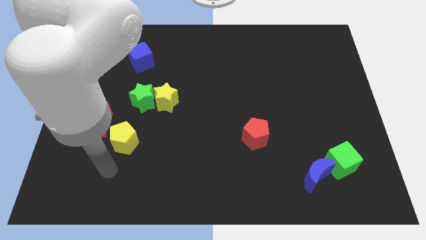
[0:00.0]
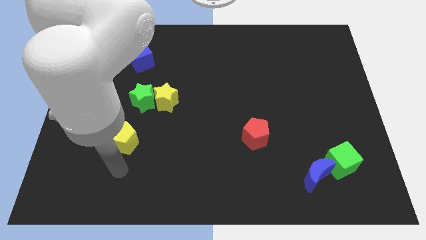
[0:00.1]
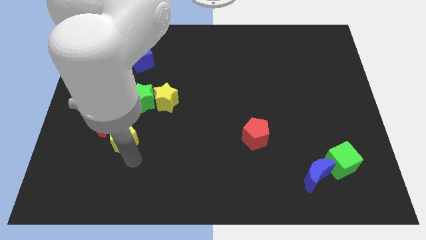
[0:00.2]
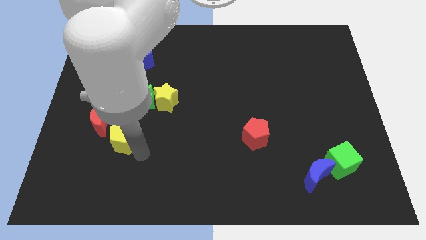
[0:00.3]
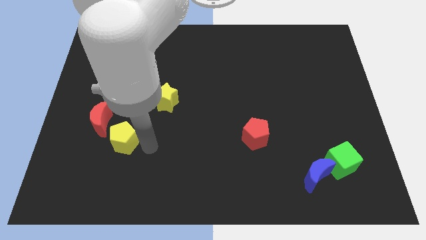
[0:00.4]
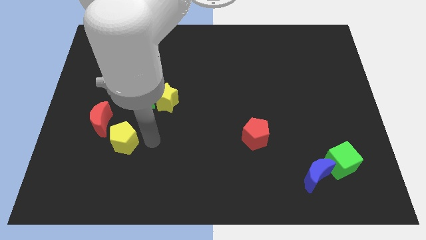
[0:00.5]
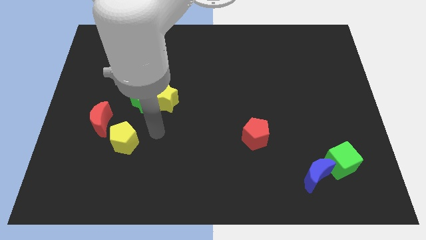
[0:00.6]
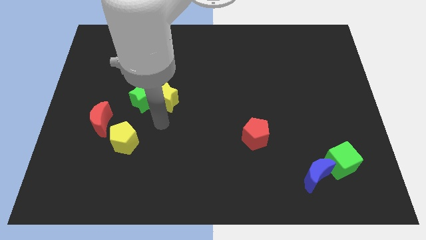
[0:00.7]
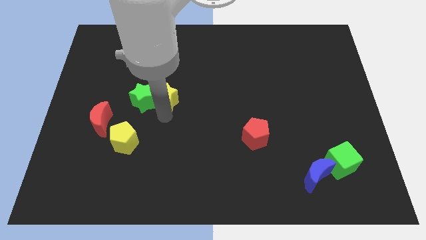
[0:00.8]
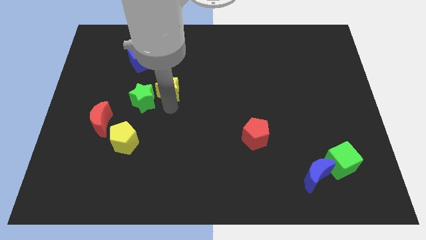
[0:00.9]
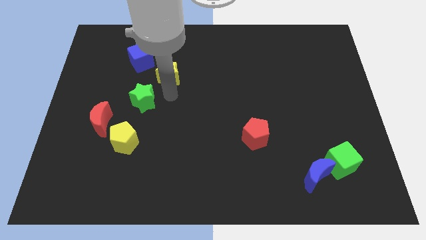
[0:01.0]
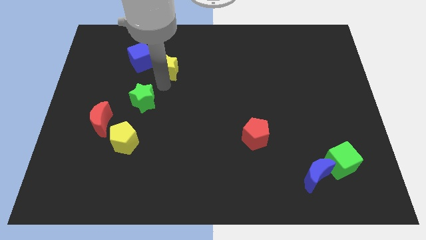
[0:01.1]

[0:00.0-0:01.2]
separate the green star from the yellow star

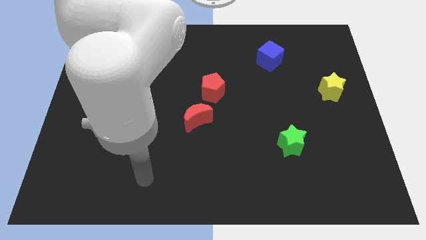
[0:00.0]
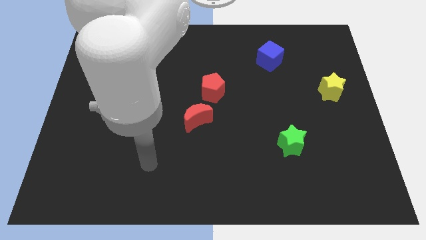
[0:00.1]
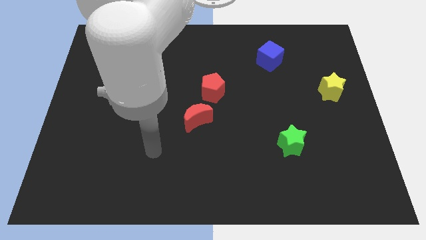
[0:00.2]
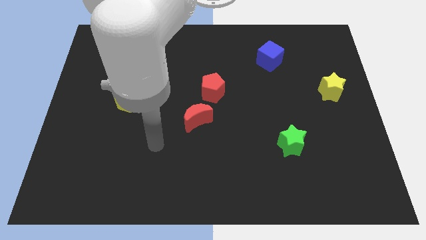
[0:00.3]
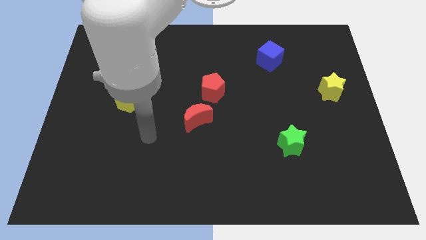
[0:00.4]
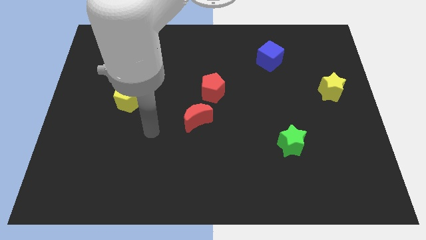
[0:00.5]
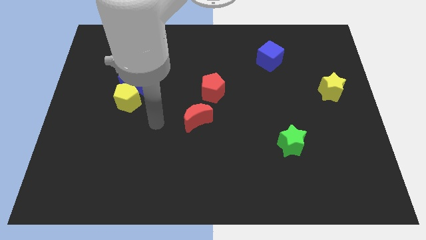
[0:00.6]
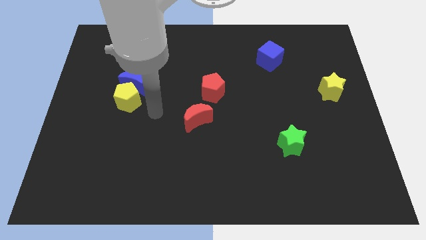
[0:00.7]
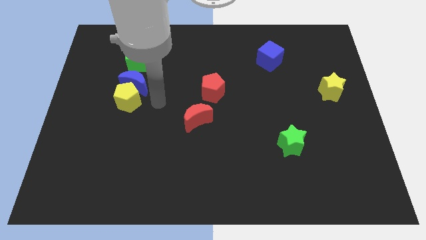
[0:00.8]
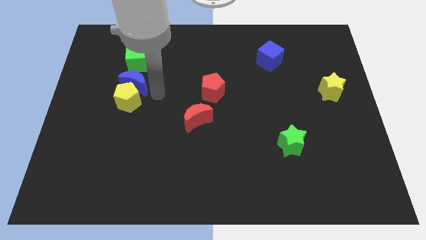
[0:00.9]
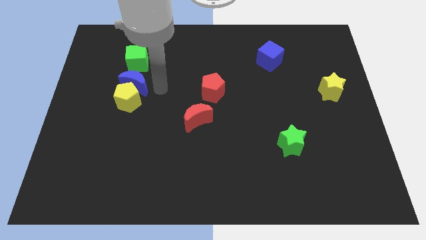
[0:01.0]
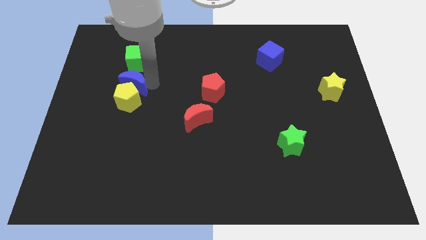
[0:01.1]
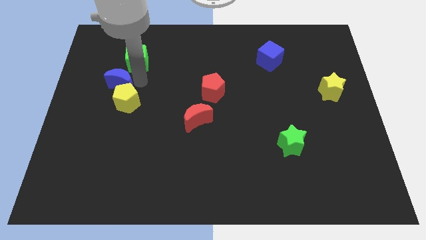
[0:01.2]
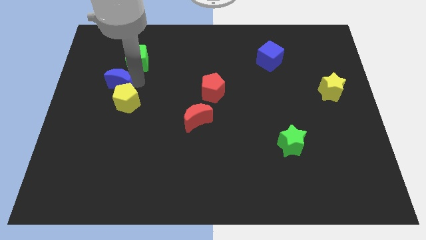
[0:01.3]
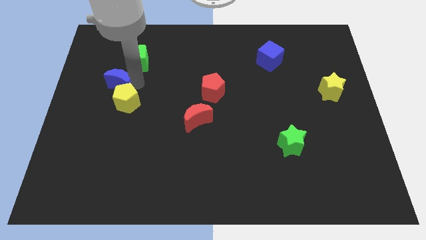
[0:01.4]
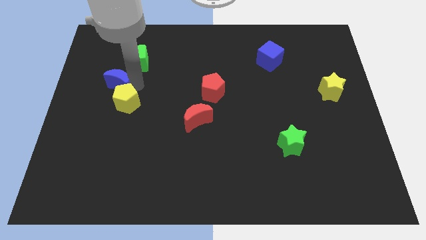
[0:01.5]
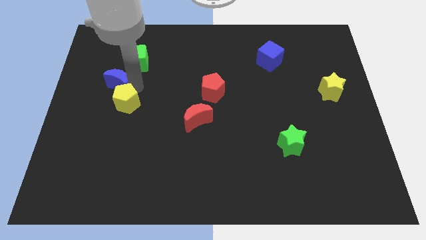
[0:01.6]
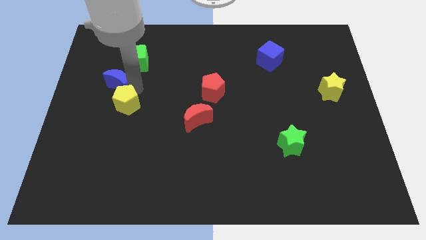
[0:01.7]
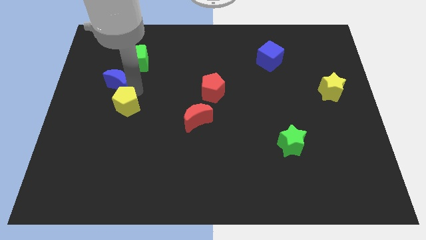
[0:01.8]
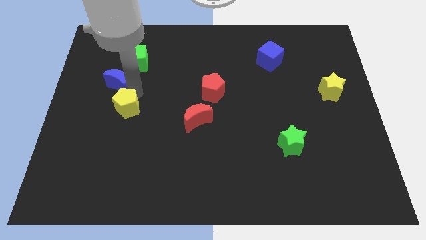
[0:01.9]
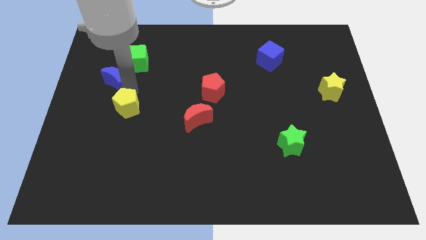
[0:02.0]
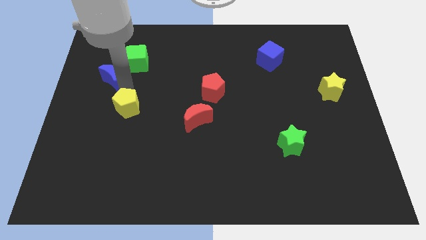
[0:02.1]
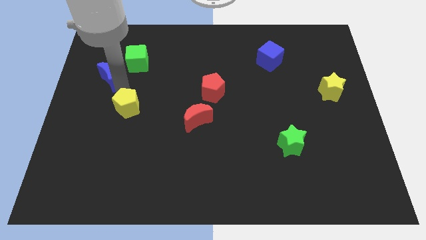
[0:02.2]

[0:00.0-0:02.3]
separate the yellow pentagon from the blue moon

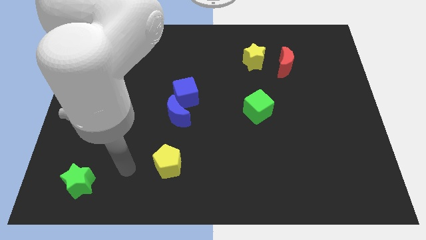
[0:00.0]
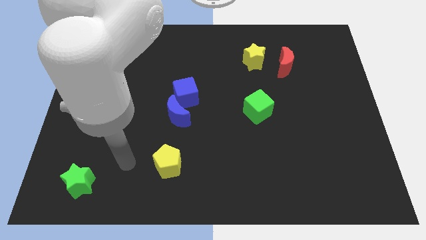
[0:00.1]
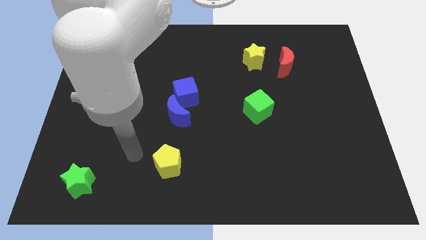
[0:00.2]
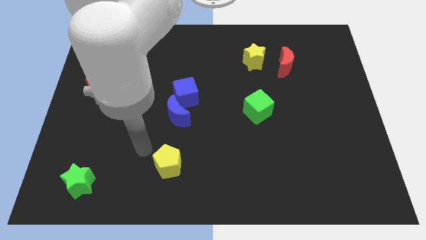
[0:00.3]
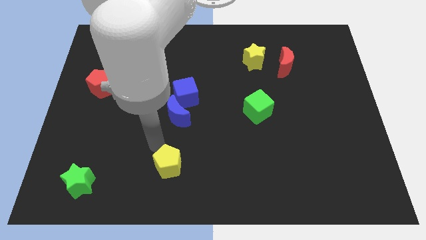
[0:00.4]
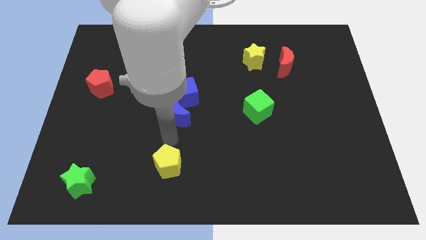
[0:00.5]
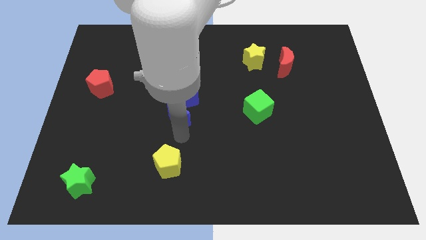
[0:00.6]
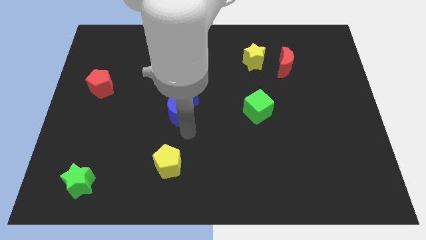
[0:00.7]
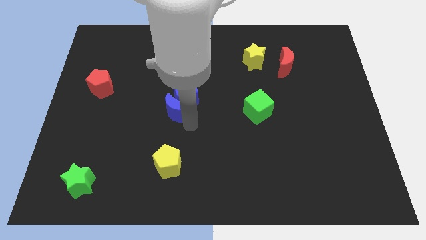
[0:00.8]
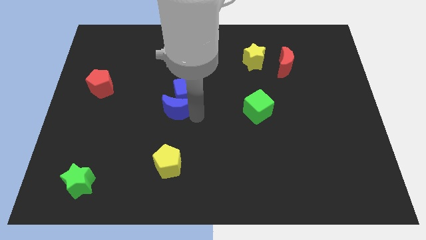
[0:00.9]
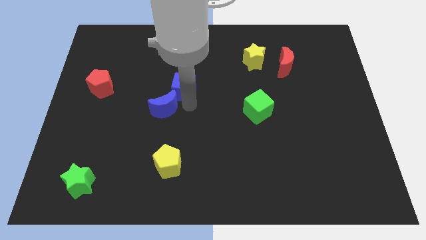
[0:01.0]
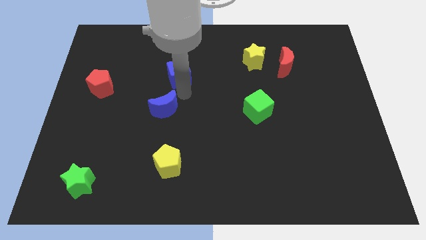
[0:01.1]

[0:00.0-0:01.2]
pull the blue moon apart from the blue cube

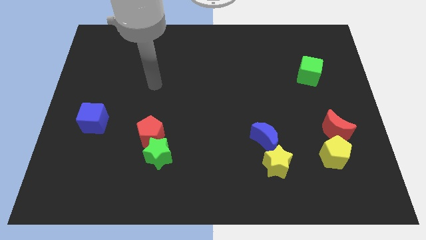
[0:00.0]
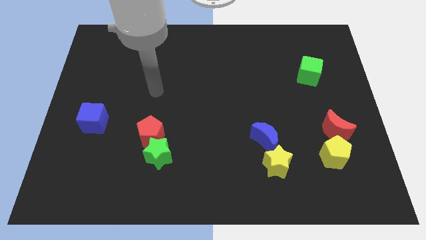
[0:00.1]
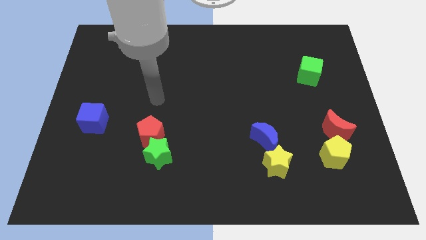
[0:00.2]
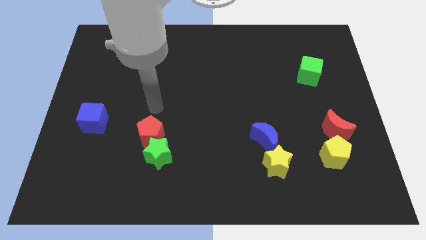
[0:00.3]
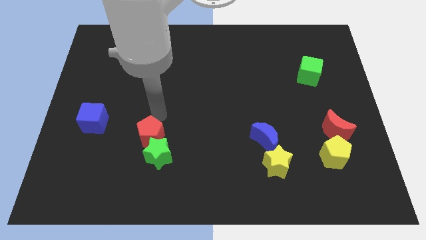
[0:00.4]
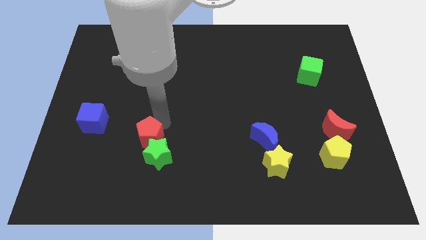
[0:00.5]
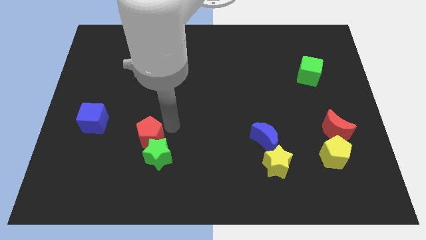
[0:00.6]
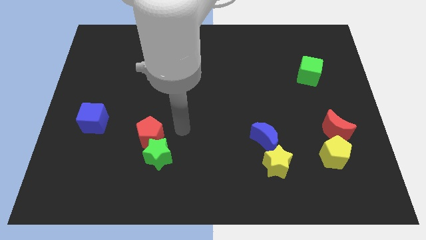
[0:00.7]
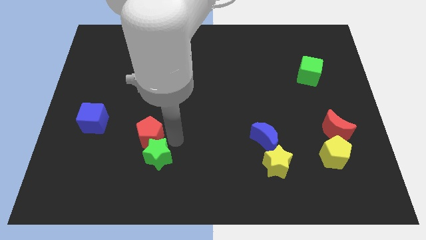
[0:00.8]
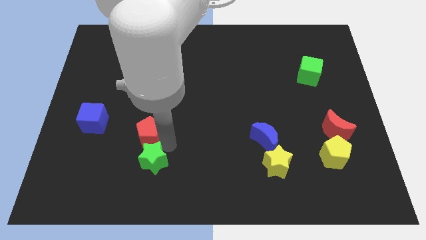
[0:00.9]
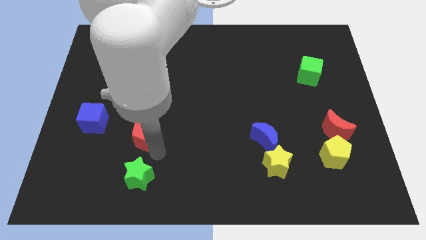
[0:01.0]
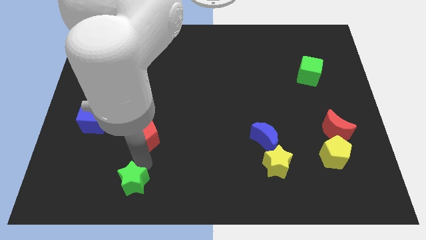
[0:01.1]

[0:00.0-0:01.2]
separate the red pentagon from the green star

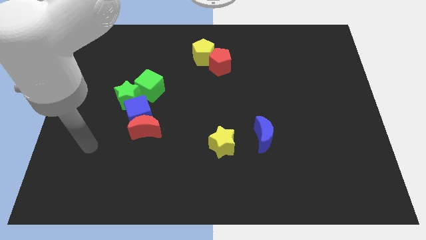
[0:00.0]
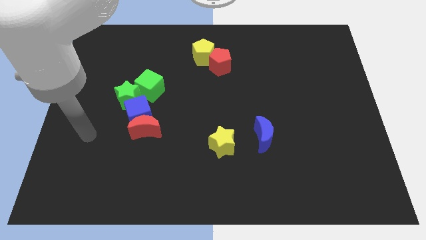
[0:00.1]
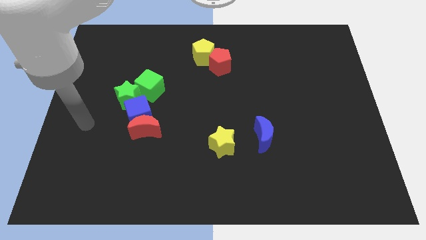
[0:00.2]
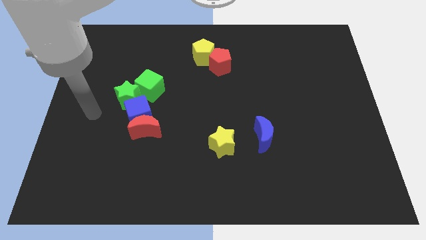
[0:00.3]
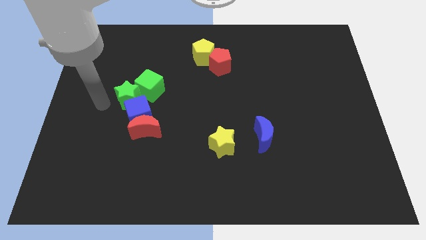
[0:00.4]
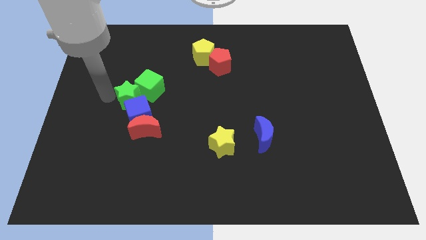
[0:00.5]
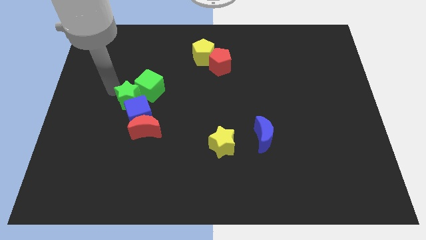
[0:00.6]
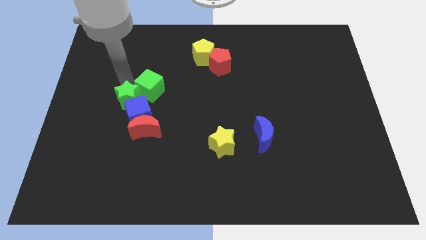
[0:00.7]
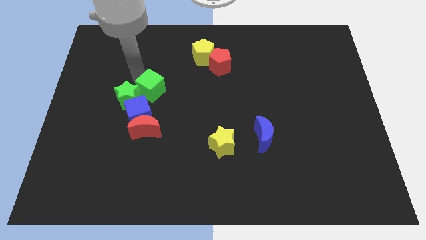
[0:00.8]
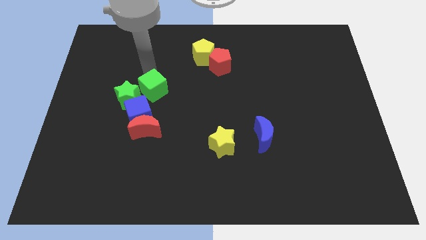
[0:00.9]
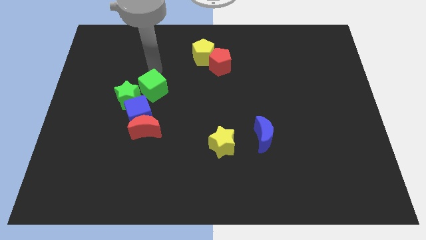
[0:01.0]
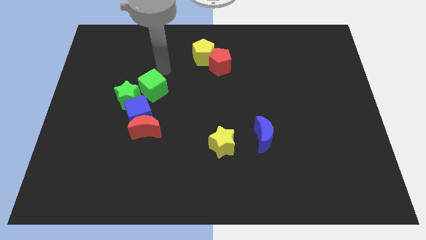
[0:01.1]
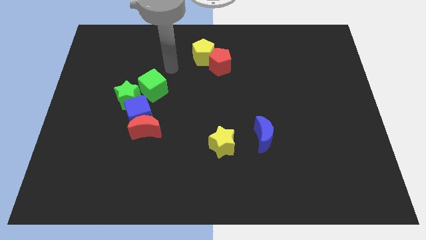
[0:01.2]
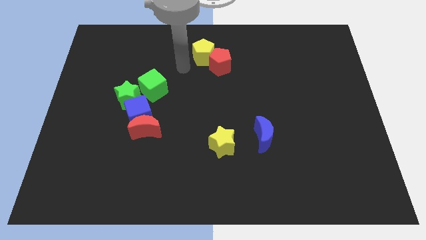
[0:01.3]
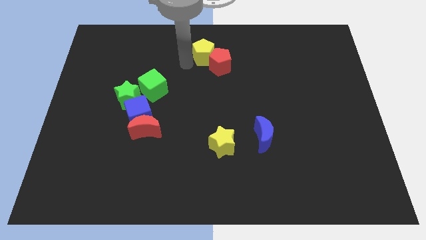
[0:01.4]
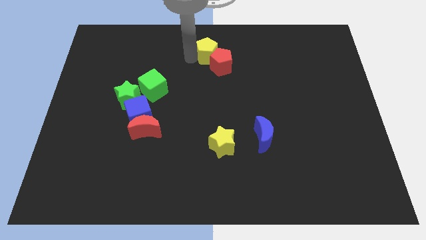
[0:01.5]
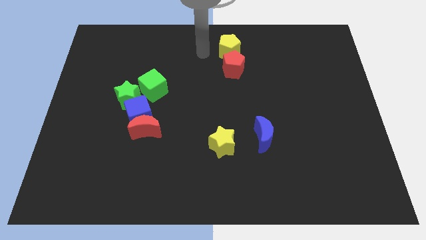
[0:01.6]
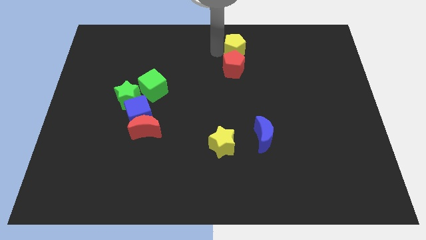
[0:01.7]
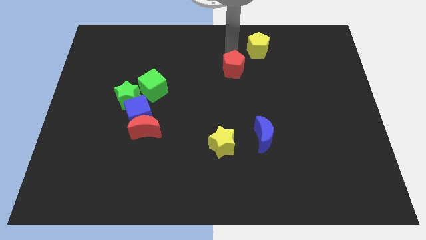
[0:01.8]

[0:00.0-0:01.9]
move the red pentagon away from the yellow pentagon

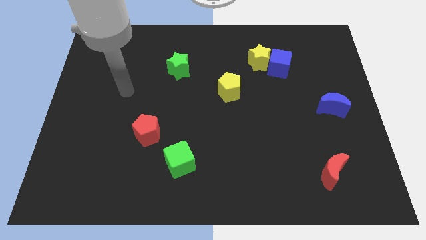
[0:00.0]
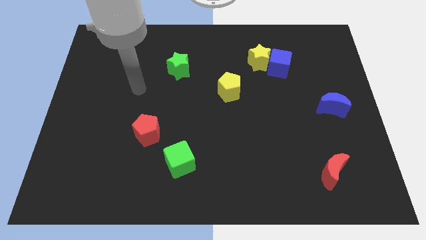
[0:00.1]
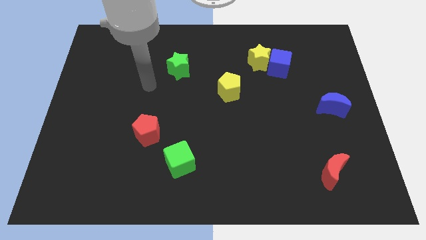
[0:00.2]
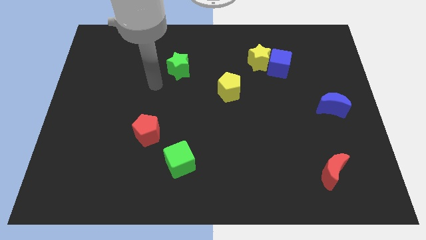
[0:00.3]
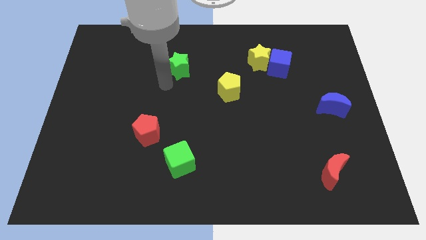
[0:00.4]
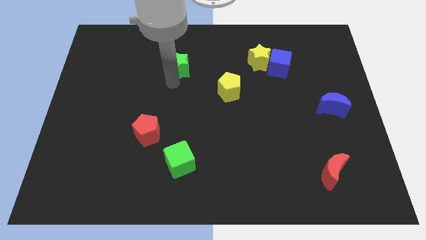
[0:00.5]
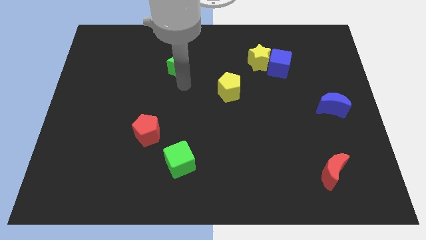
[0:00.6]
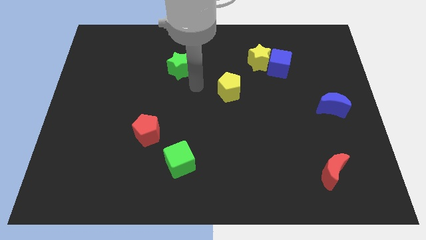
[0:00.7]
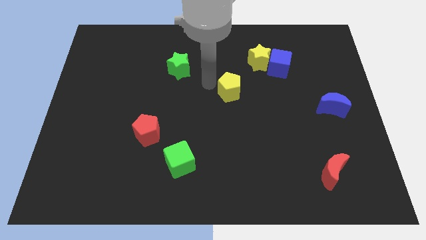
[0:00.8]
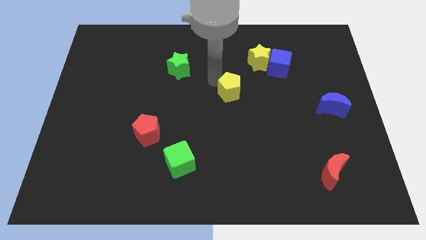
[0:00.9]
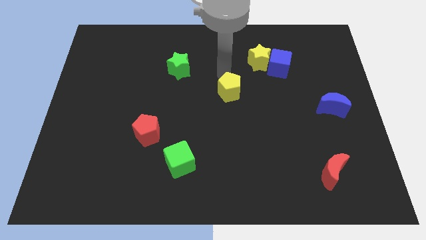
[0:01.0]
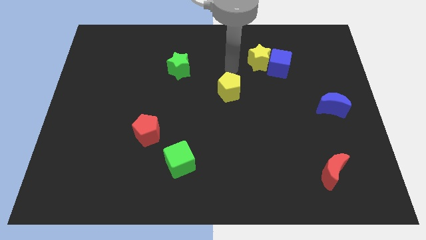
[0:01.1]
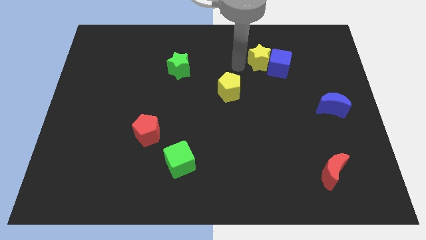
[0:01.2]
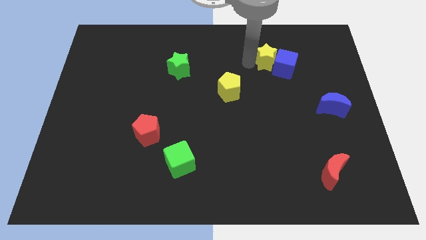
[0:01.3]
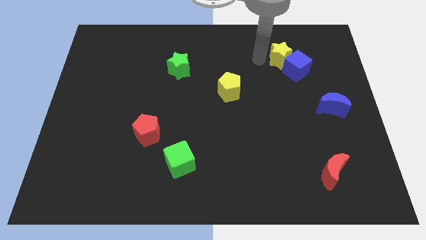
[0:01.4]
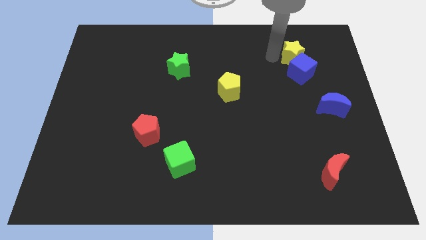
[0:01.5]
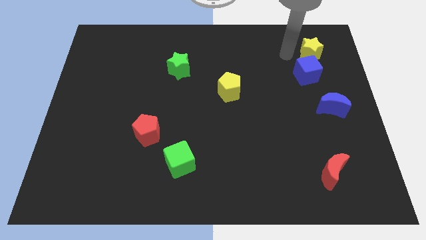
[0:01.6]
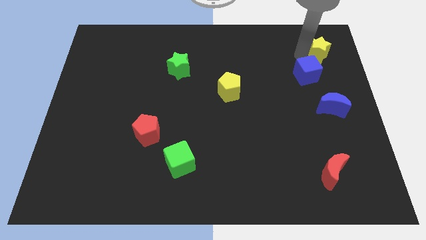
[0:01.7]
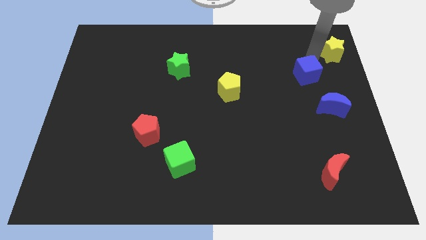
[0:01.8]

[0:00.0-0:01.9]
pull the blue cube apart from the yellow star
